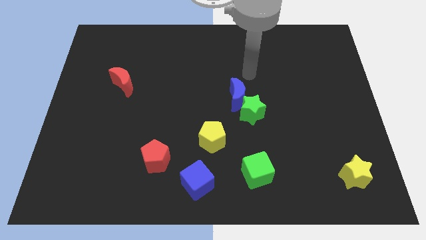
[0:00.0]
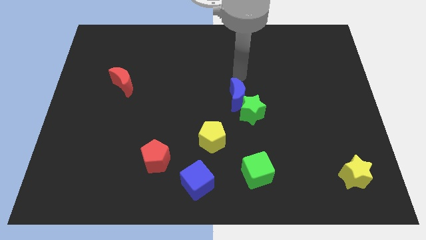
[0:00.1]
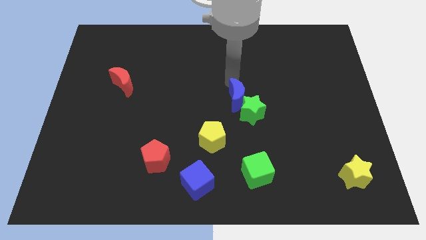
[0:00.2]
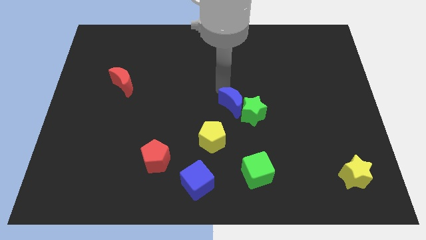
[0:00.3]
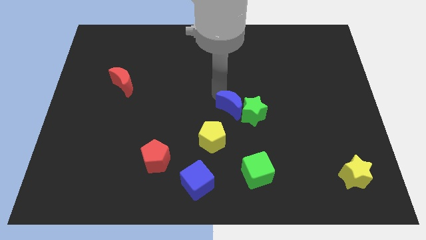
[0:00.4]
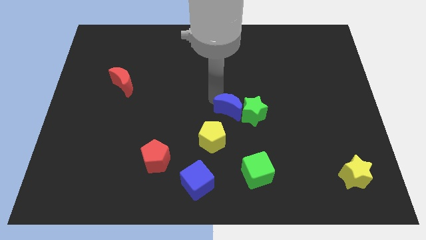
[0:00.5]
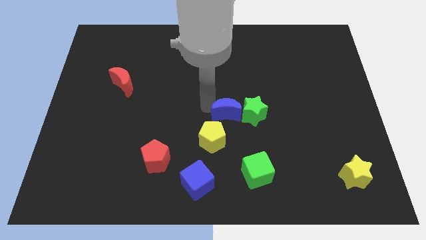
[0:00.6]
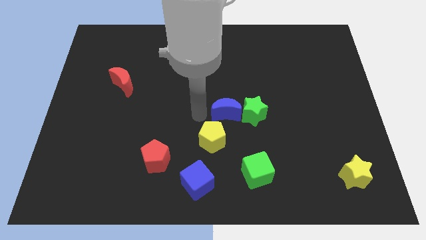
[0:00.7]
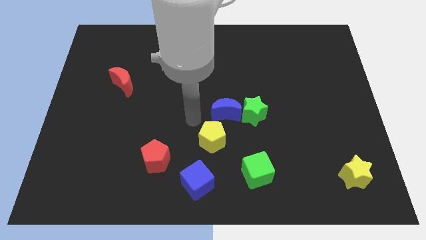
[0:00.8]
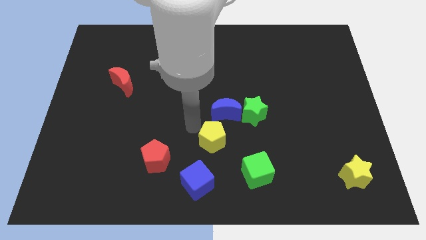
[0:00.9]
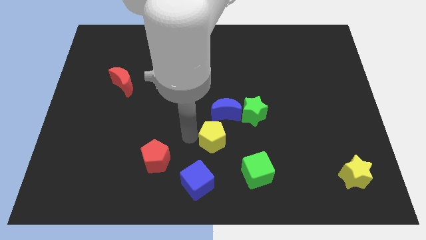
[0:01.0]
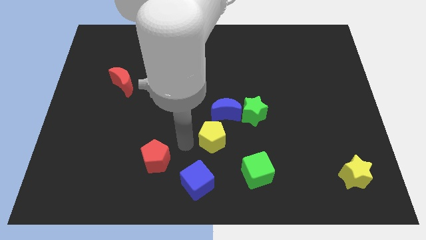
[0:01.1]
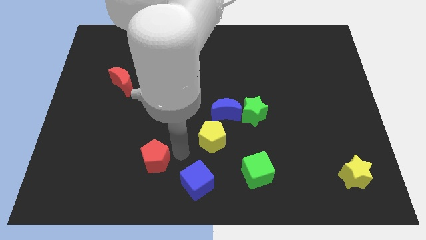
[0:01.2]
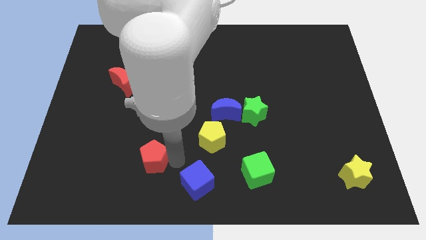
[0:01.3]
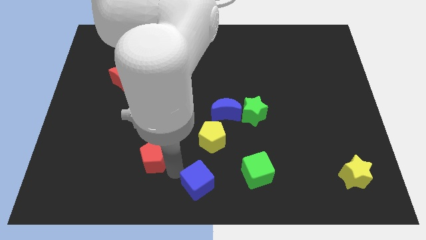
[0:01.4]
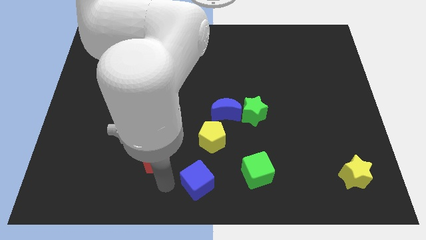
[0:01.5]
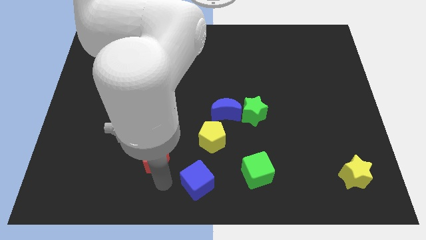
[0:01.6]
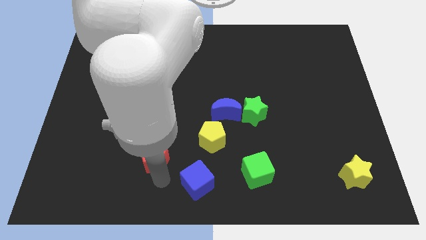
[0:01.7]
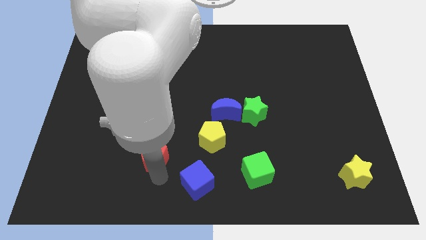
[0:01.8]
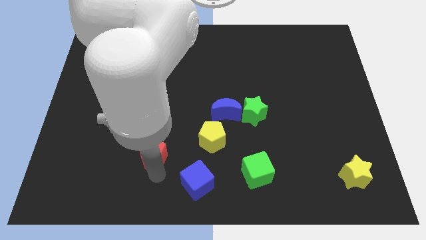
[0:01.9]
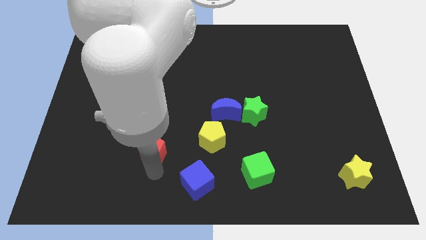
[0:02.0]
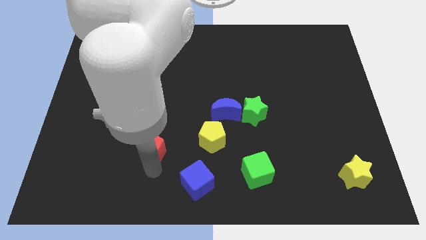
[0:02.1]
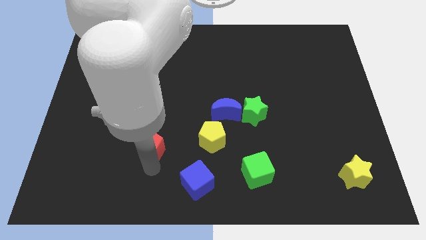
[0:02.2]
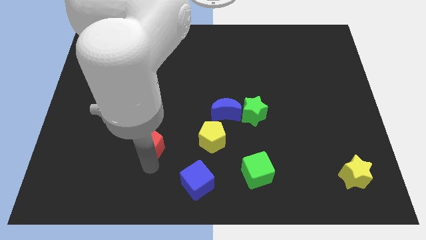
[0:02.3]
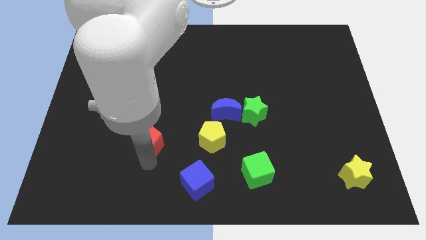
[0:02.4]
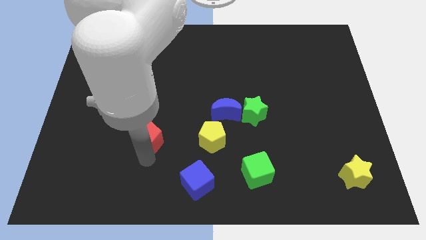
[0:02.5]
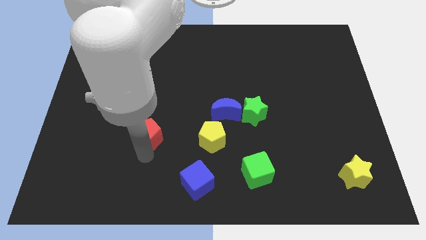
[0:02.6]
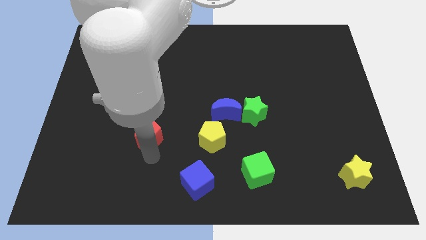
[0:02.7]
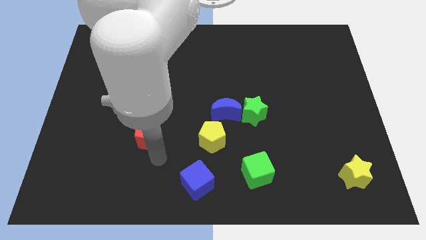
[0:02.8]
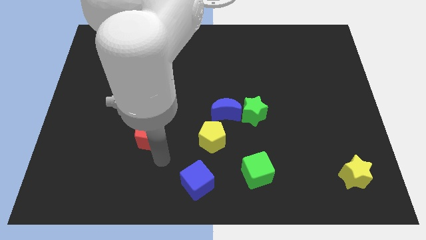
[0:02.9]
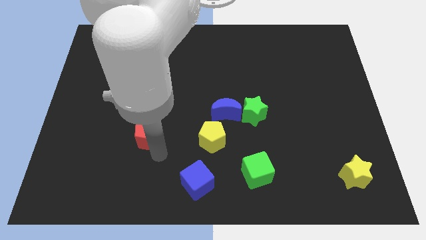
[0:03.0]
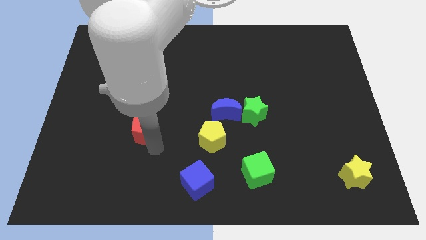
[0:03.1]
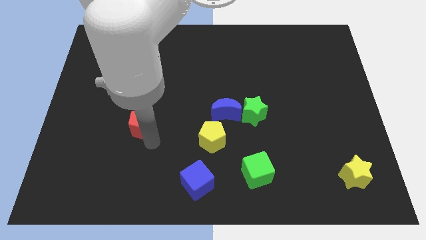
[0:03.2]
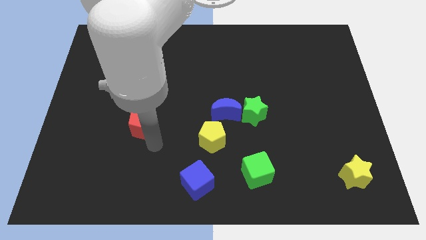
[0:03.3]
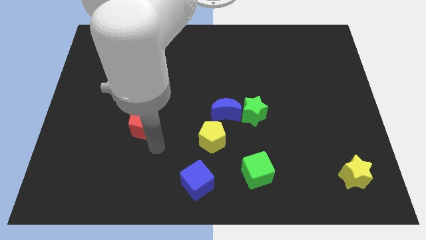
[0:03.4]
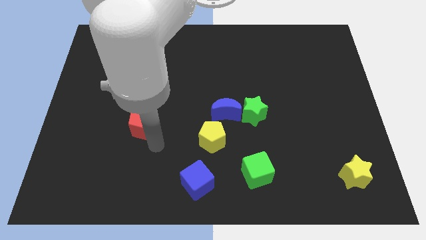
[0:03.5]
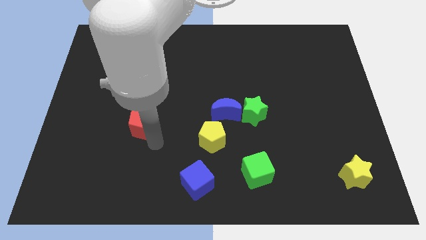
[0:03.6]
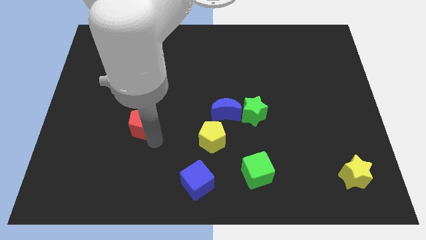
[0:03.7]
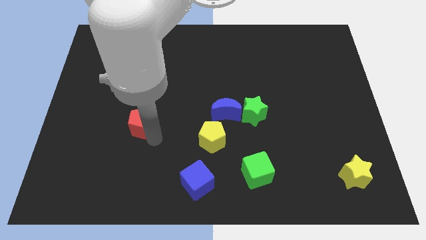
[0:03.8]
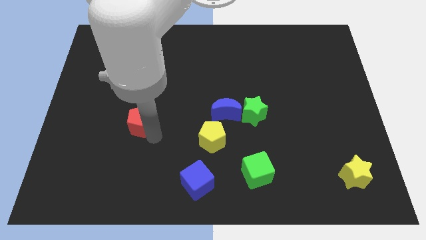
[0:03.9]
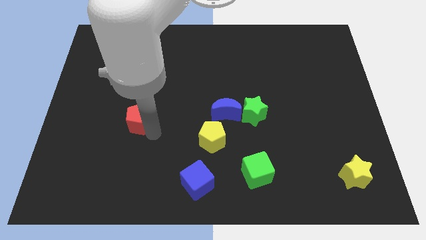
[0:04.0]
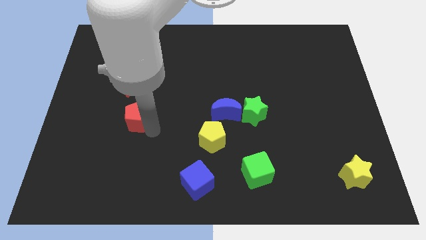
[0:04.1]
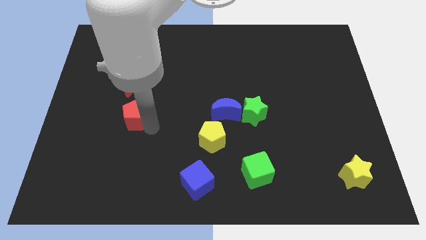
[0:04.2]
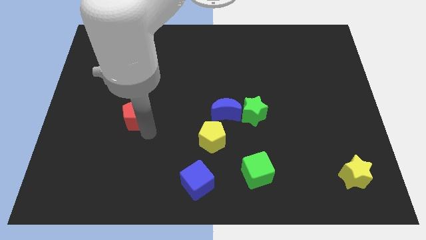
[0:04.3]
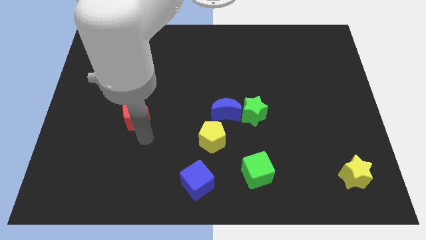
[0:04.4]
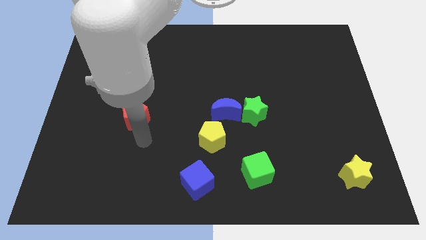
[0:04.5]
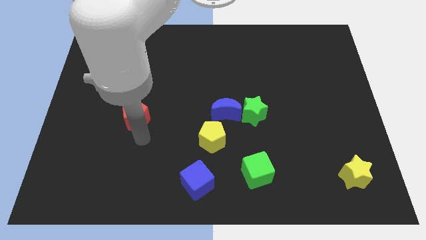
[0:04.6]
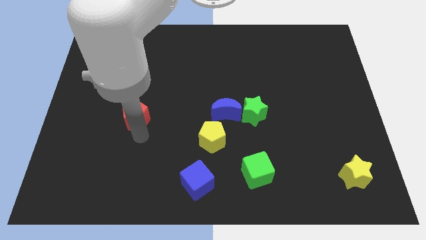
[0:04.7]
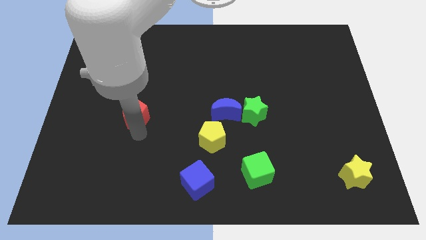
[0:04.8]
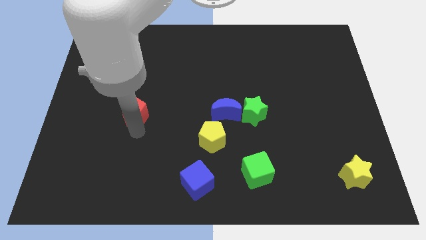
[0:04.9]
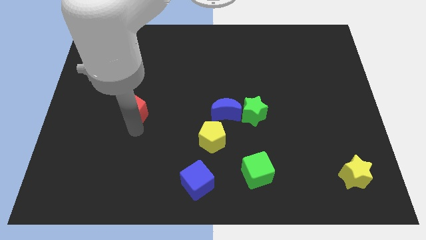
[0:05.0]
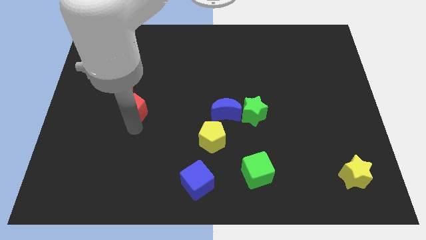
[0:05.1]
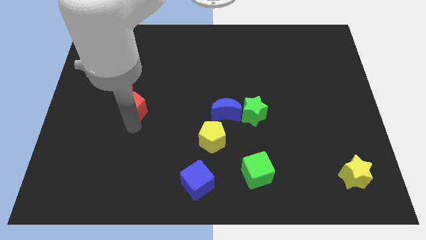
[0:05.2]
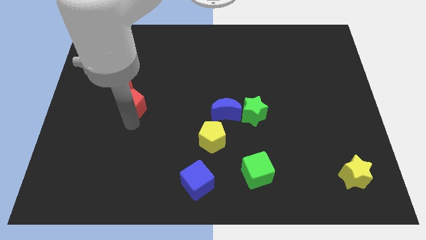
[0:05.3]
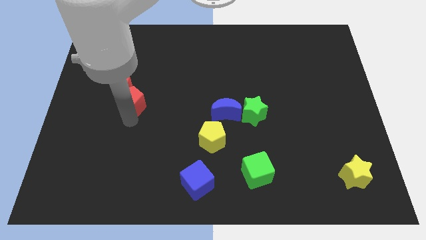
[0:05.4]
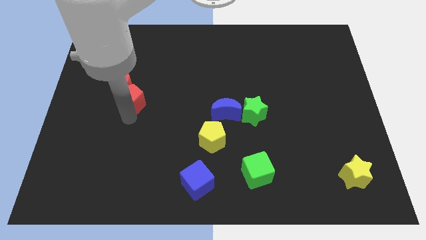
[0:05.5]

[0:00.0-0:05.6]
put the red pentagon towards the red moon

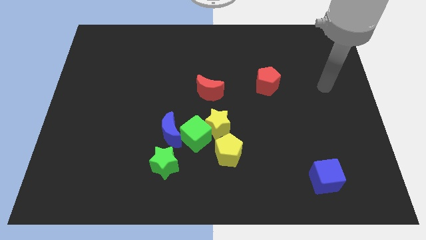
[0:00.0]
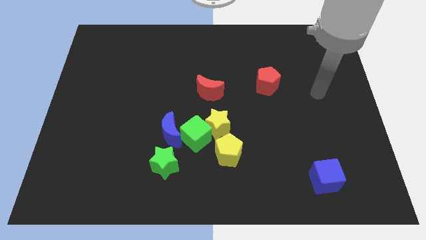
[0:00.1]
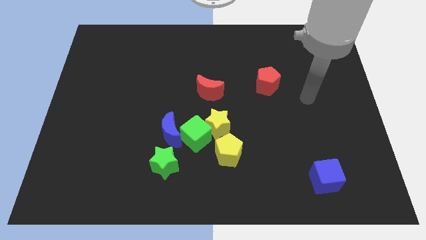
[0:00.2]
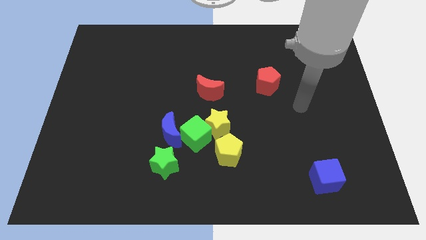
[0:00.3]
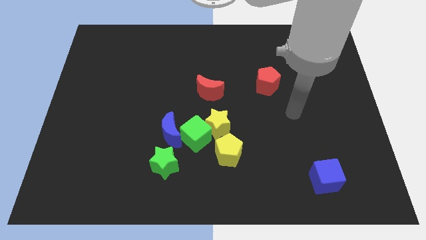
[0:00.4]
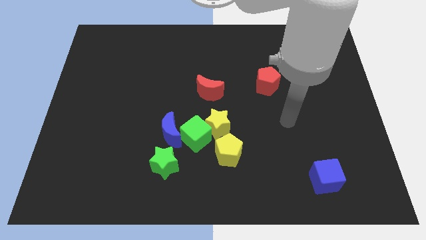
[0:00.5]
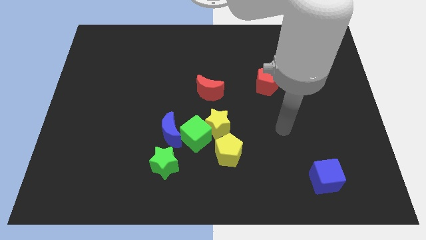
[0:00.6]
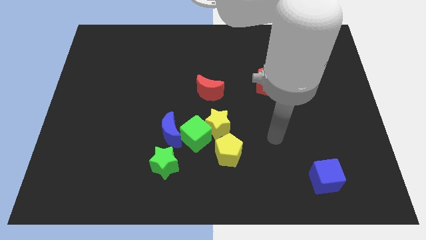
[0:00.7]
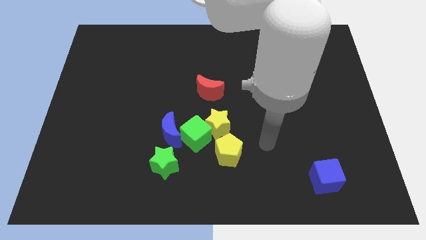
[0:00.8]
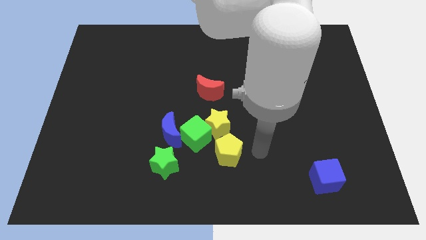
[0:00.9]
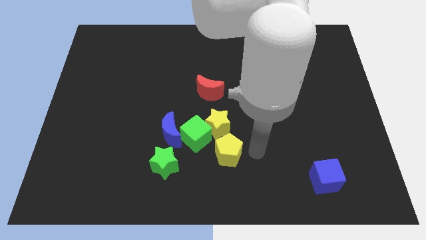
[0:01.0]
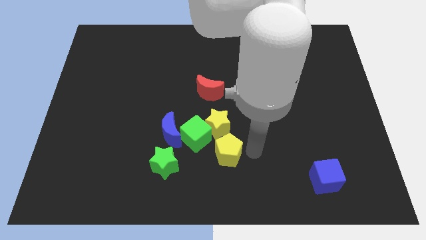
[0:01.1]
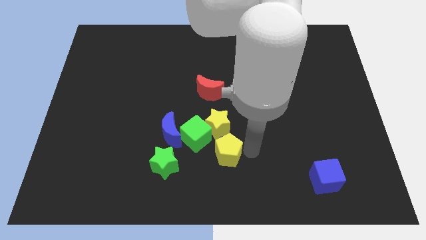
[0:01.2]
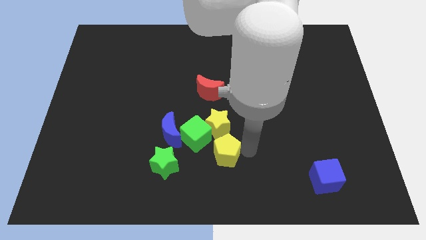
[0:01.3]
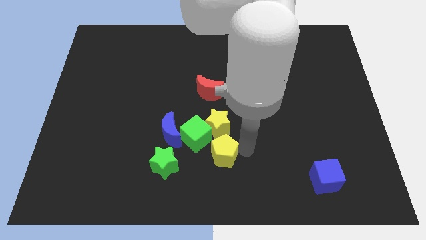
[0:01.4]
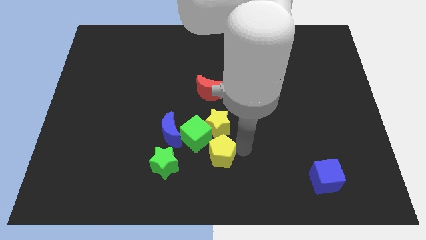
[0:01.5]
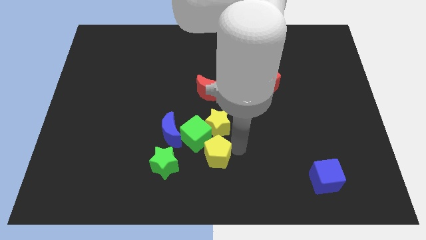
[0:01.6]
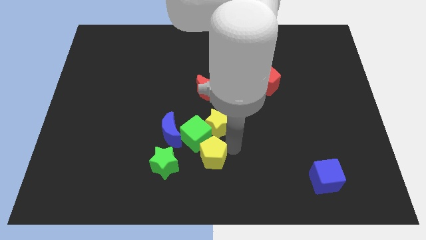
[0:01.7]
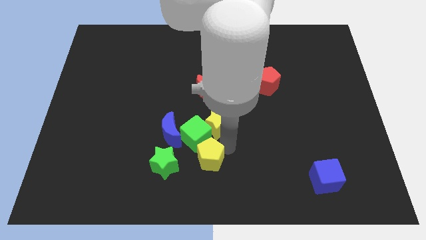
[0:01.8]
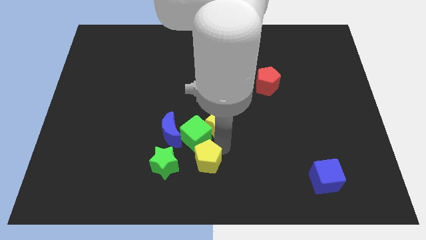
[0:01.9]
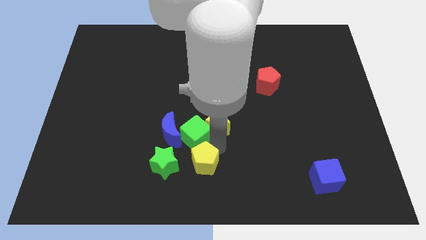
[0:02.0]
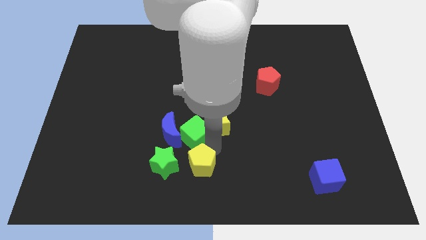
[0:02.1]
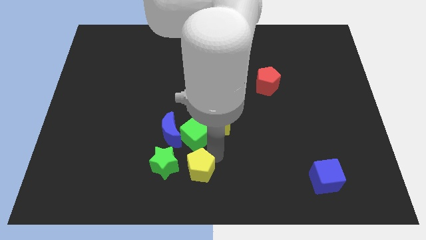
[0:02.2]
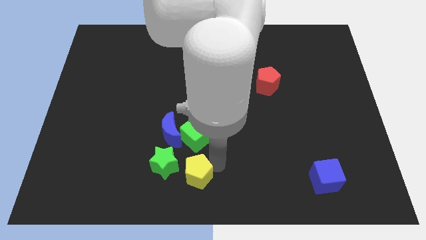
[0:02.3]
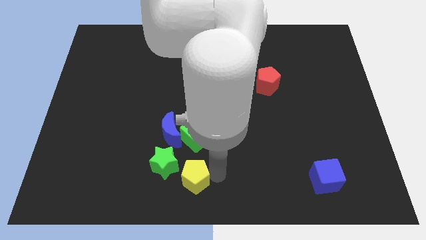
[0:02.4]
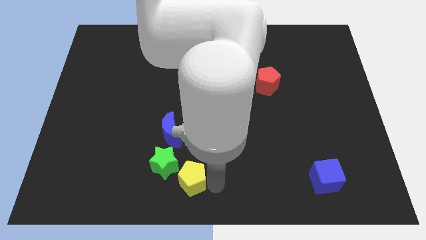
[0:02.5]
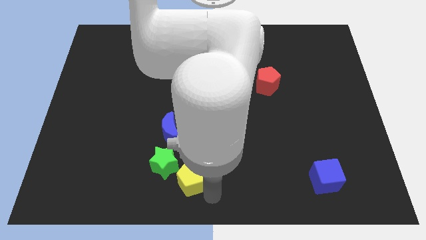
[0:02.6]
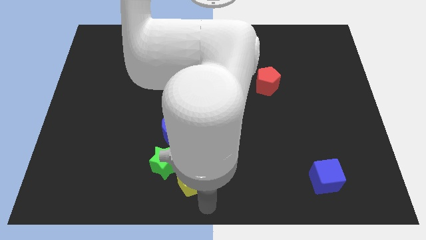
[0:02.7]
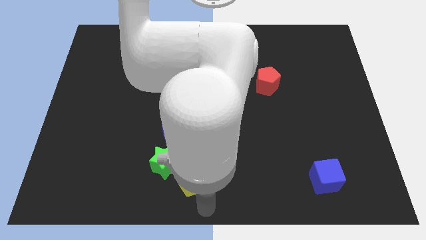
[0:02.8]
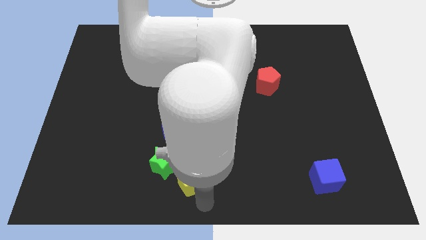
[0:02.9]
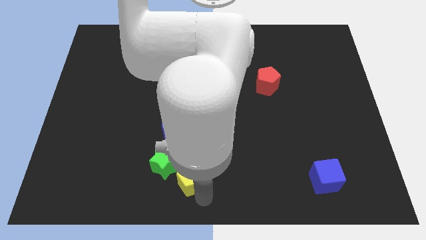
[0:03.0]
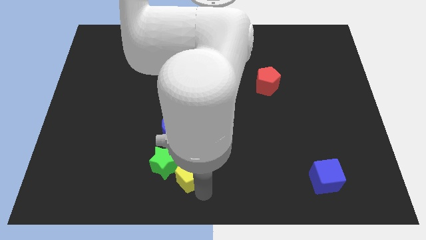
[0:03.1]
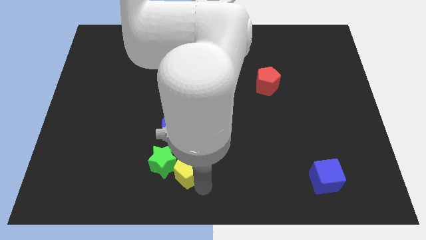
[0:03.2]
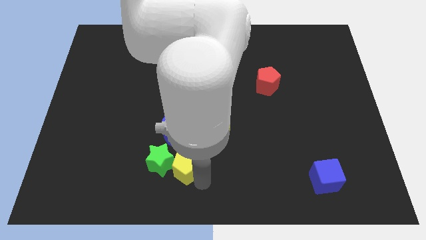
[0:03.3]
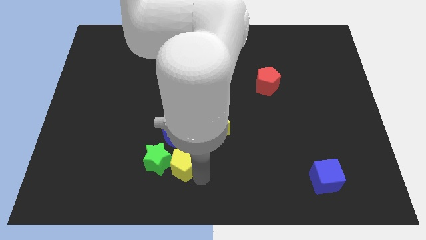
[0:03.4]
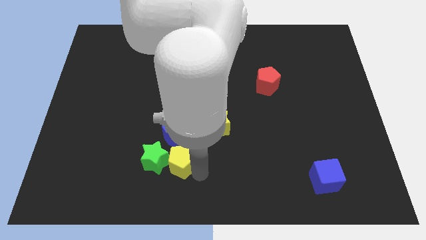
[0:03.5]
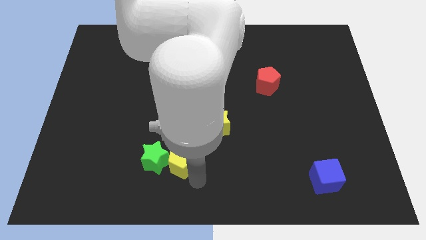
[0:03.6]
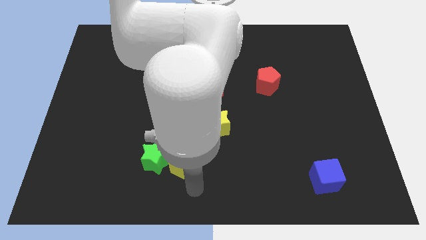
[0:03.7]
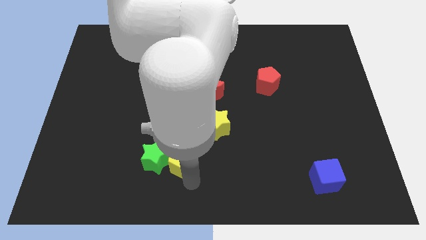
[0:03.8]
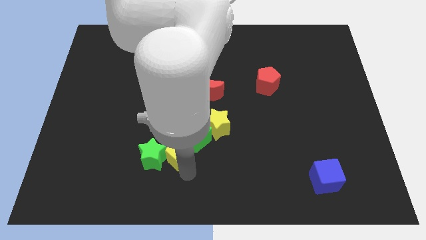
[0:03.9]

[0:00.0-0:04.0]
push the yellow pentagon to the blue moon
